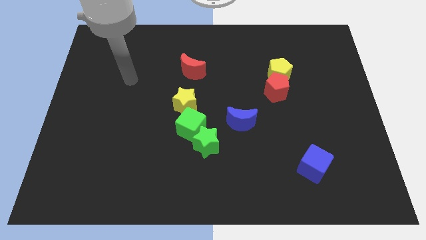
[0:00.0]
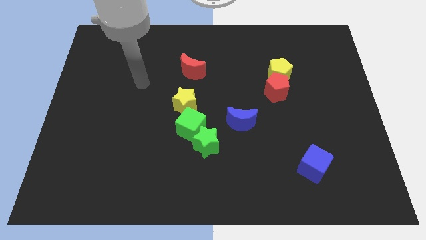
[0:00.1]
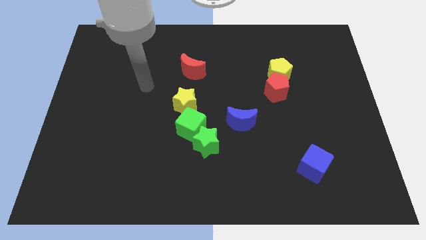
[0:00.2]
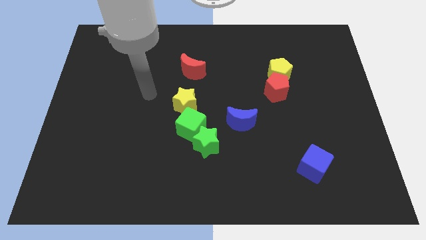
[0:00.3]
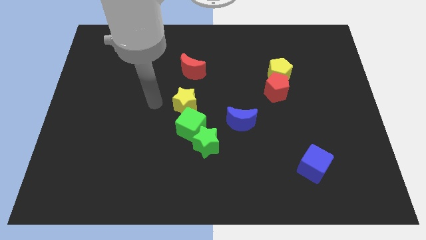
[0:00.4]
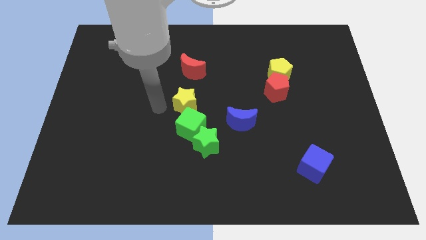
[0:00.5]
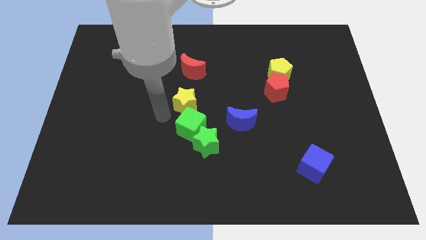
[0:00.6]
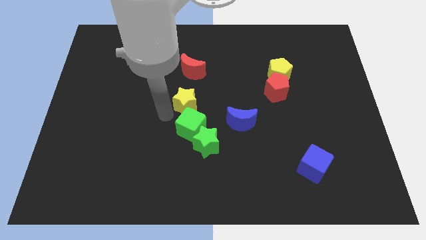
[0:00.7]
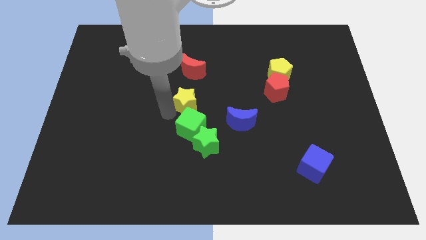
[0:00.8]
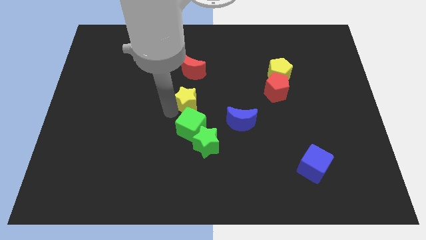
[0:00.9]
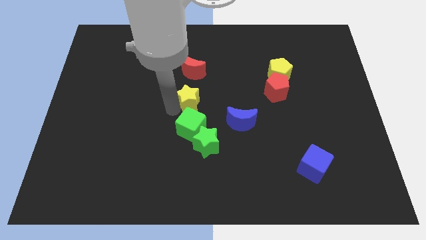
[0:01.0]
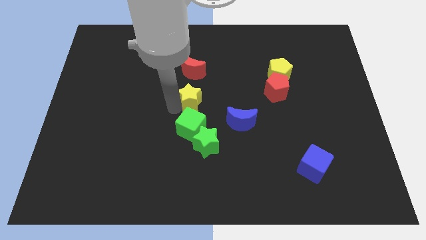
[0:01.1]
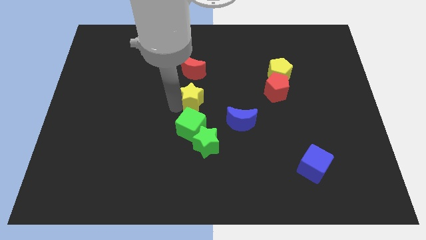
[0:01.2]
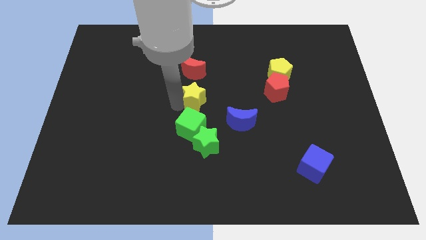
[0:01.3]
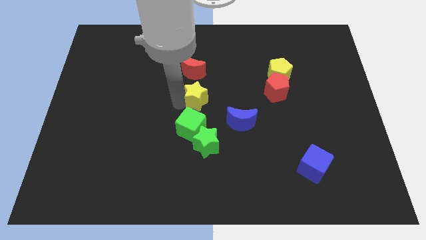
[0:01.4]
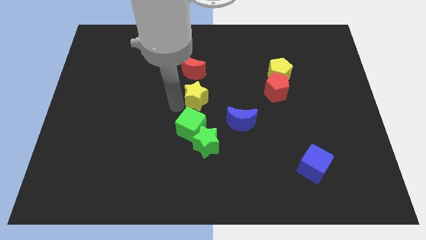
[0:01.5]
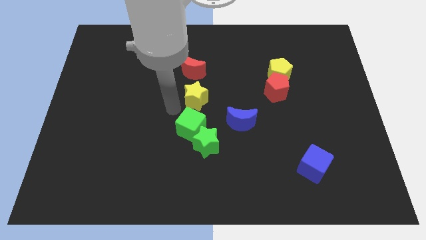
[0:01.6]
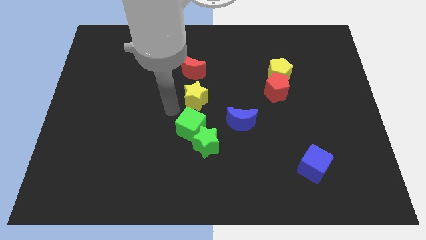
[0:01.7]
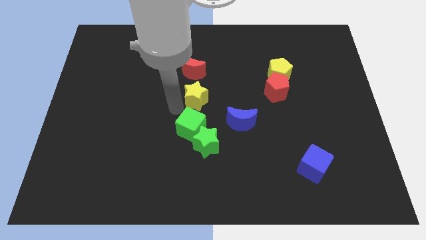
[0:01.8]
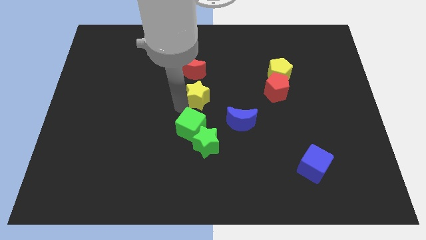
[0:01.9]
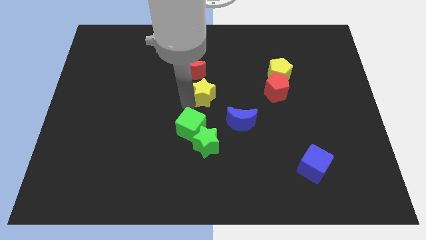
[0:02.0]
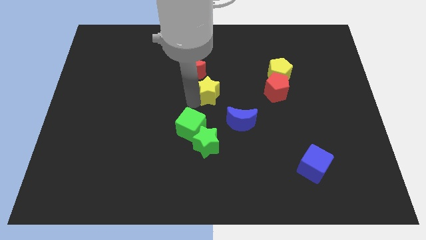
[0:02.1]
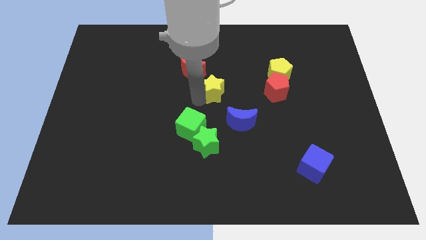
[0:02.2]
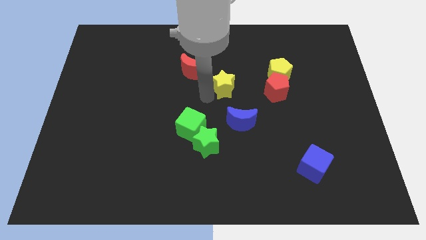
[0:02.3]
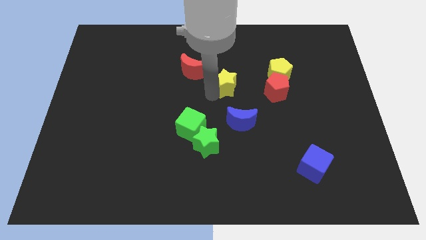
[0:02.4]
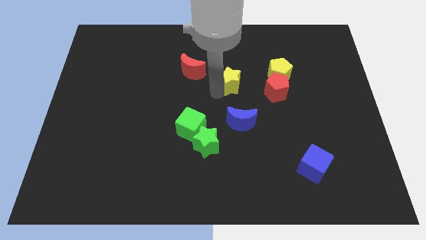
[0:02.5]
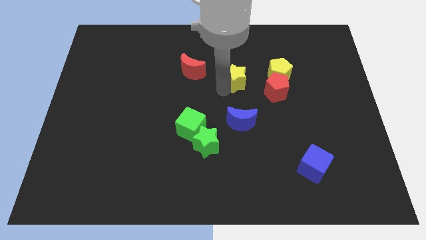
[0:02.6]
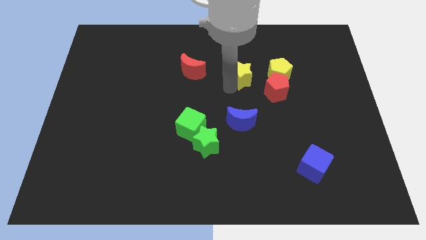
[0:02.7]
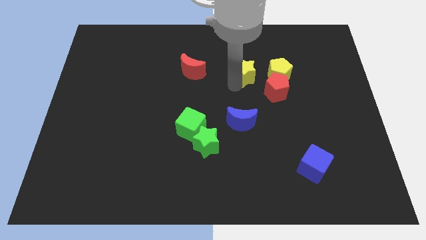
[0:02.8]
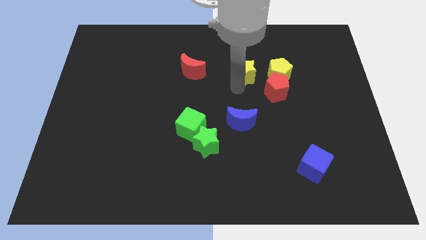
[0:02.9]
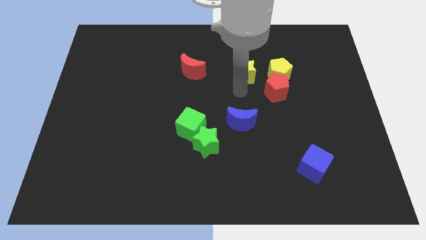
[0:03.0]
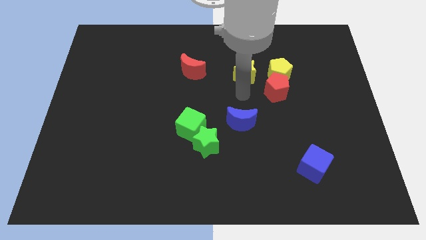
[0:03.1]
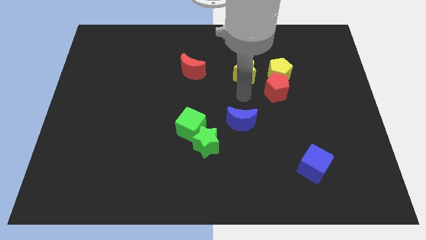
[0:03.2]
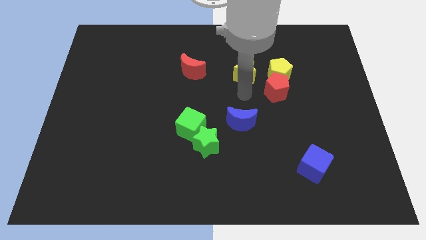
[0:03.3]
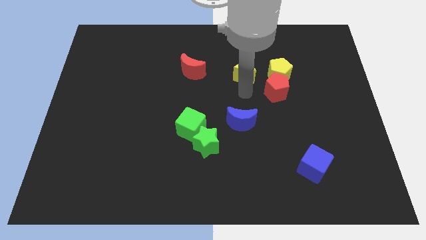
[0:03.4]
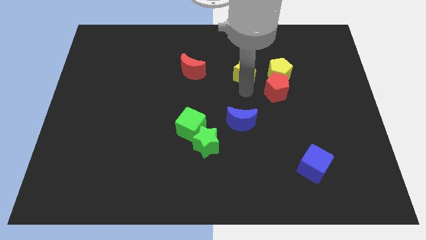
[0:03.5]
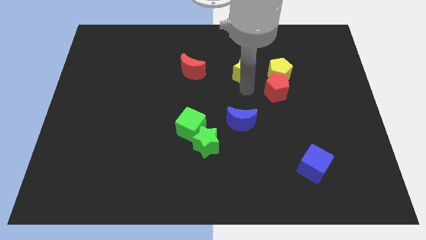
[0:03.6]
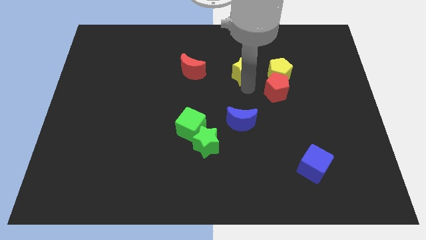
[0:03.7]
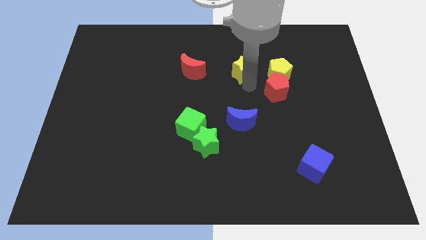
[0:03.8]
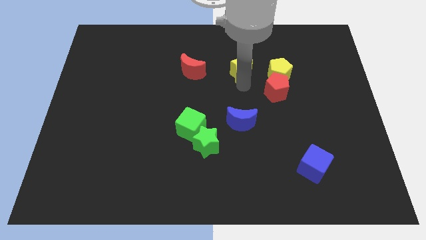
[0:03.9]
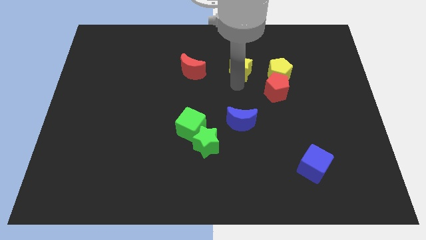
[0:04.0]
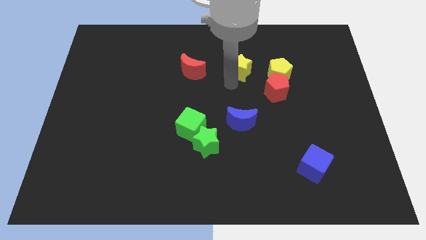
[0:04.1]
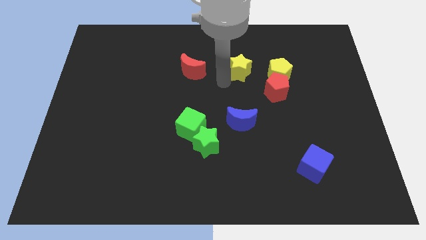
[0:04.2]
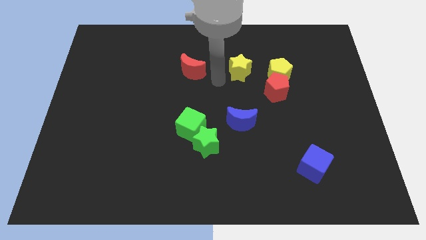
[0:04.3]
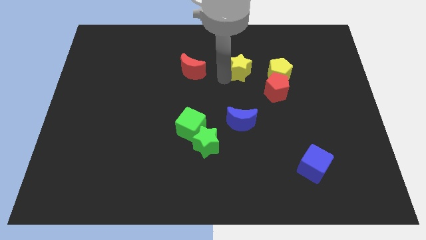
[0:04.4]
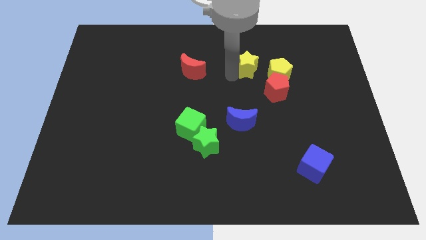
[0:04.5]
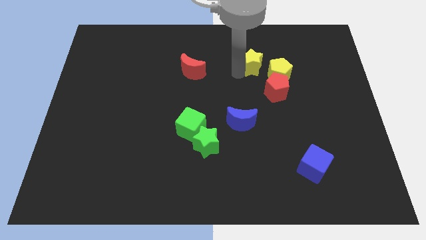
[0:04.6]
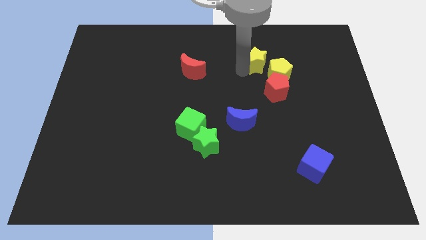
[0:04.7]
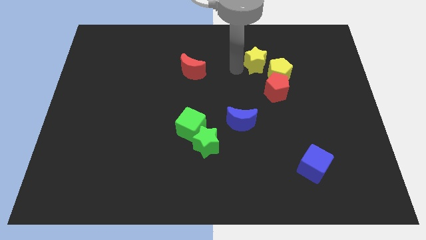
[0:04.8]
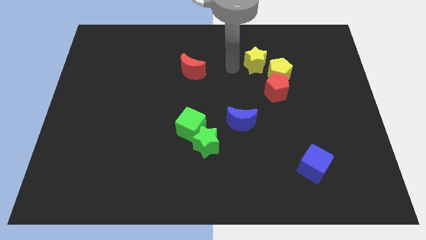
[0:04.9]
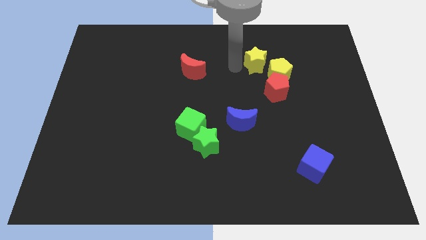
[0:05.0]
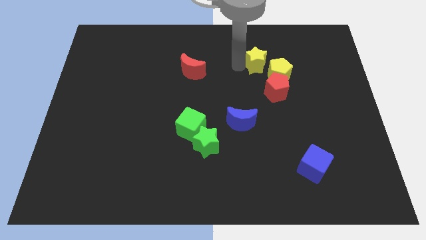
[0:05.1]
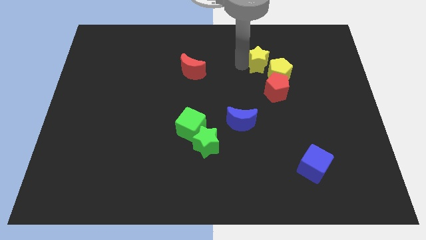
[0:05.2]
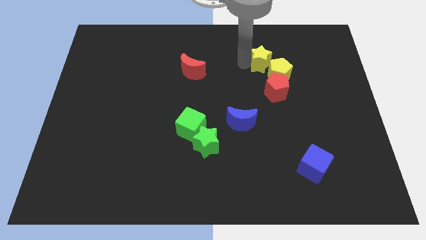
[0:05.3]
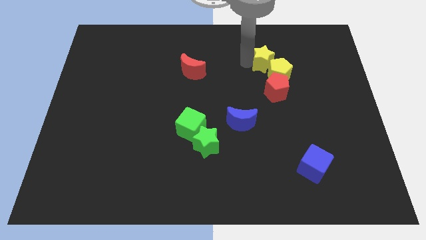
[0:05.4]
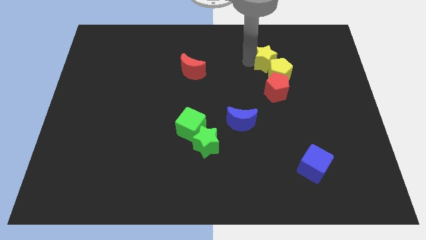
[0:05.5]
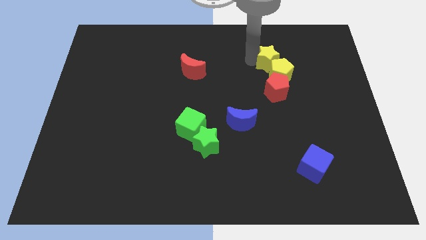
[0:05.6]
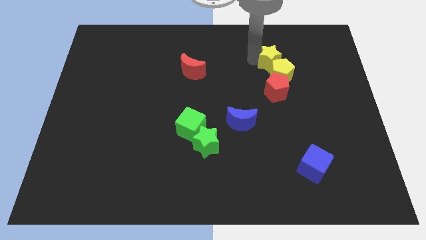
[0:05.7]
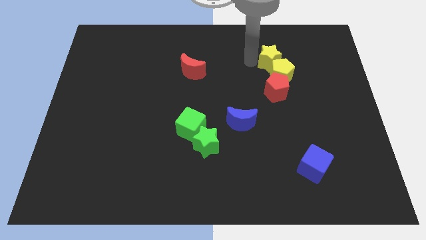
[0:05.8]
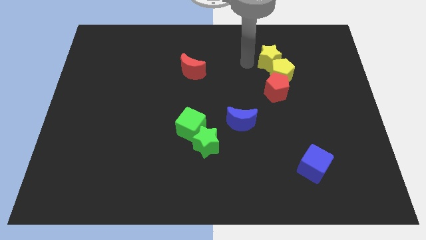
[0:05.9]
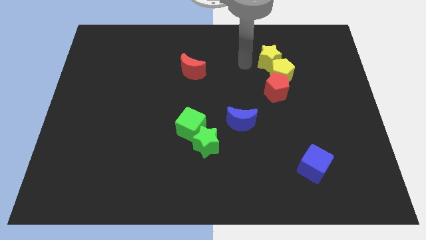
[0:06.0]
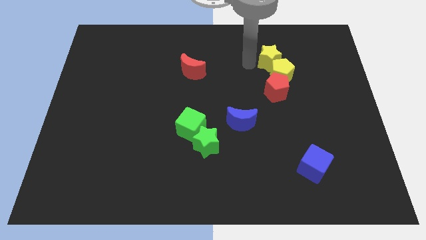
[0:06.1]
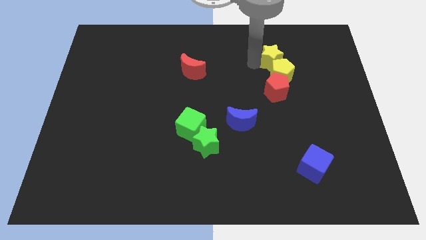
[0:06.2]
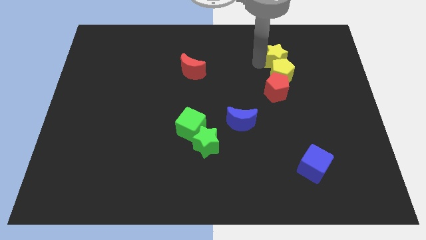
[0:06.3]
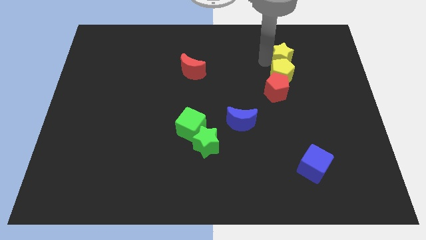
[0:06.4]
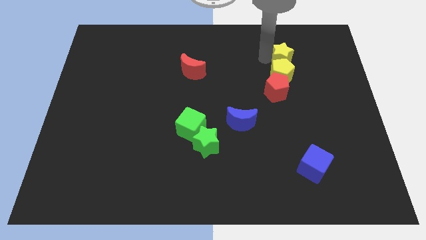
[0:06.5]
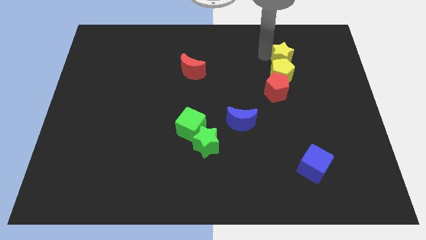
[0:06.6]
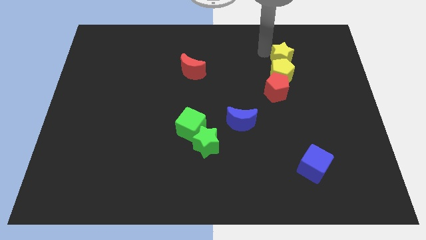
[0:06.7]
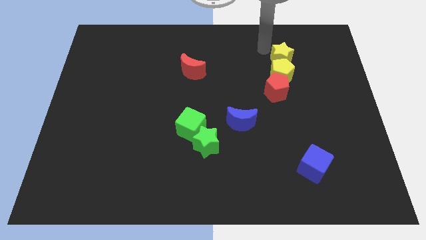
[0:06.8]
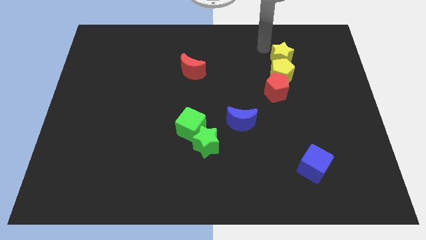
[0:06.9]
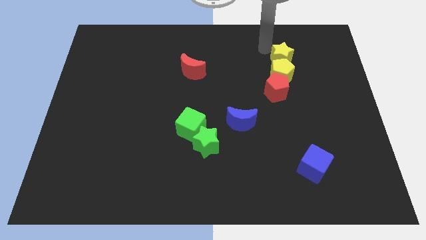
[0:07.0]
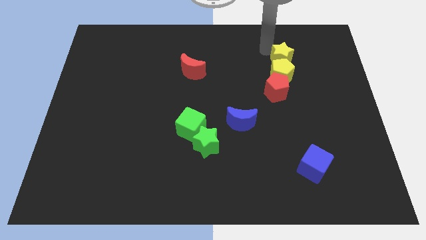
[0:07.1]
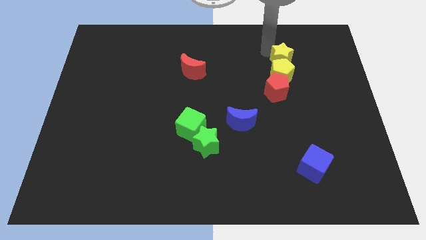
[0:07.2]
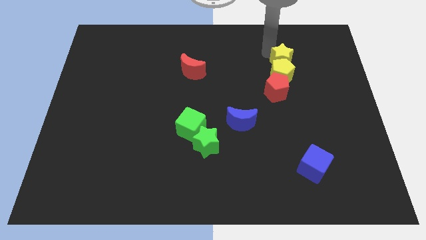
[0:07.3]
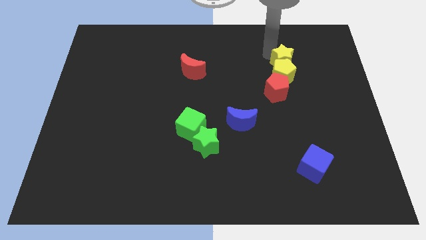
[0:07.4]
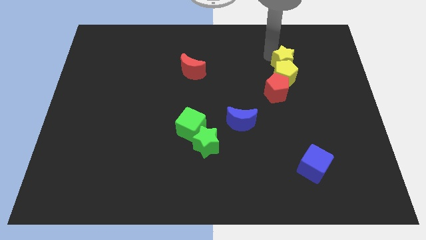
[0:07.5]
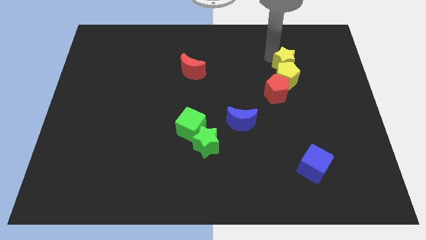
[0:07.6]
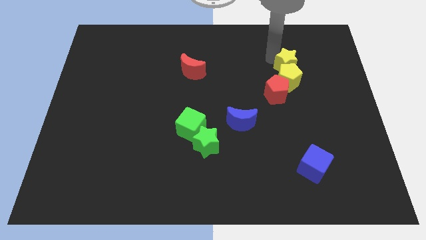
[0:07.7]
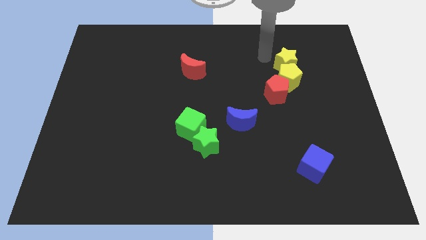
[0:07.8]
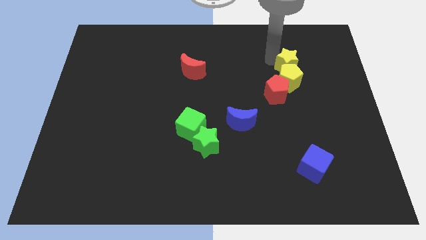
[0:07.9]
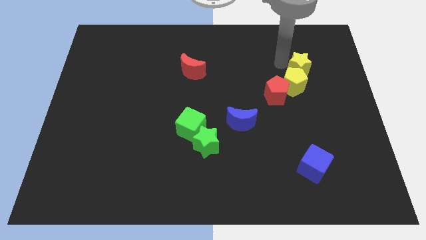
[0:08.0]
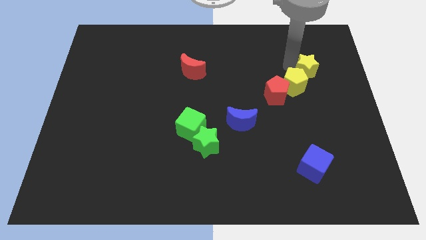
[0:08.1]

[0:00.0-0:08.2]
put the yellow star to the right of the yellow pentagon
